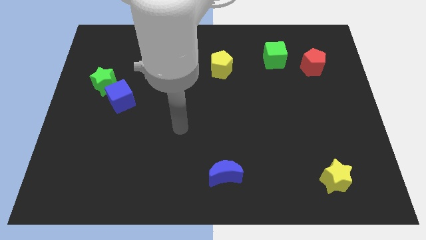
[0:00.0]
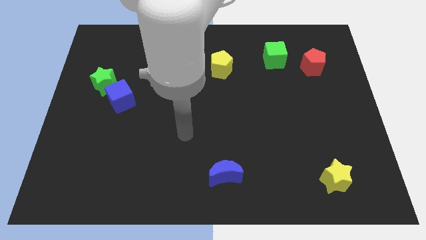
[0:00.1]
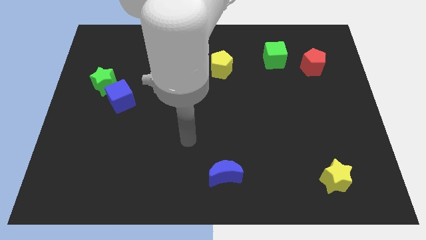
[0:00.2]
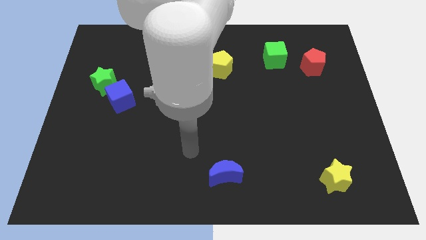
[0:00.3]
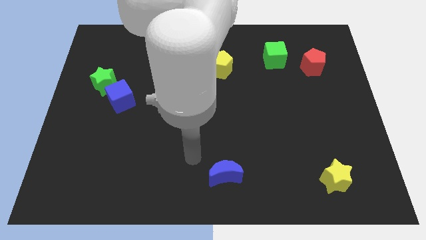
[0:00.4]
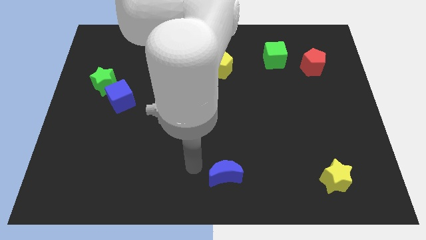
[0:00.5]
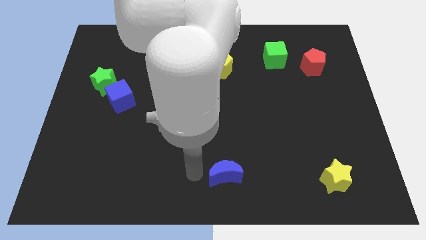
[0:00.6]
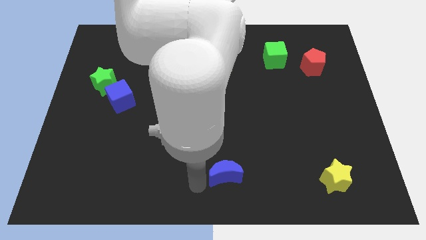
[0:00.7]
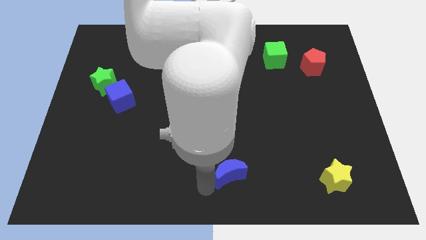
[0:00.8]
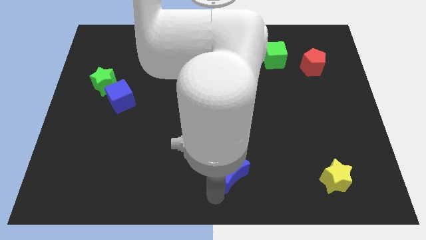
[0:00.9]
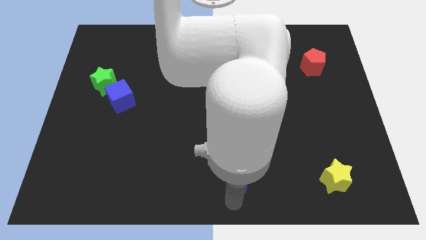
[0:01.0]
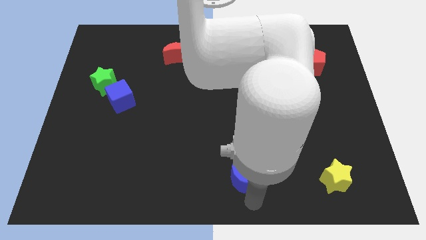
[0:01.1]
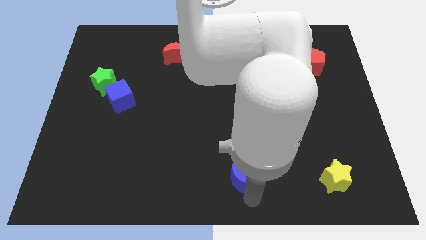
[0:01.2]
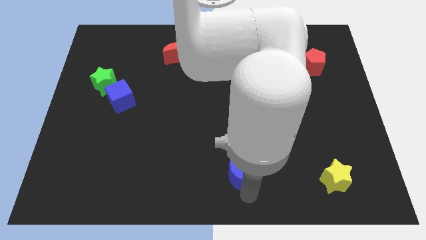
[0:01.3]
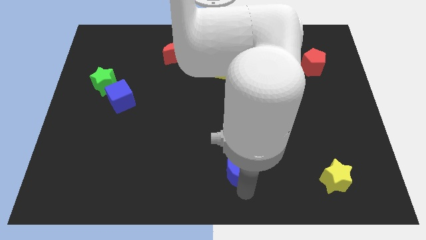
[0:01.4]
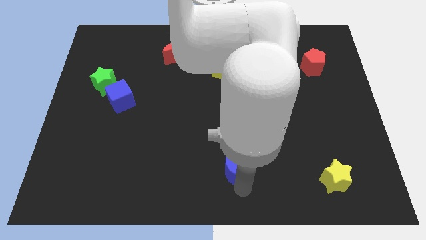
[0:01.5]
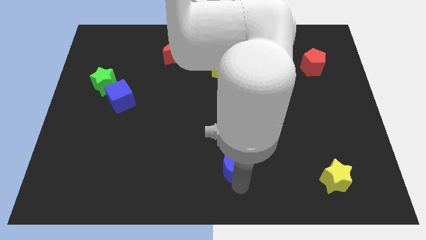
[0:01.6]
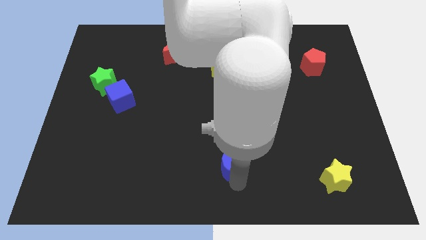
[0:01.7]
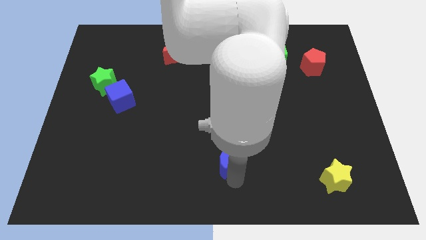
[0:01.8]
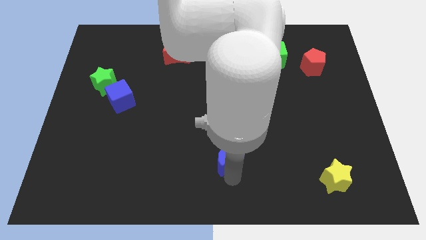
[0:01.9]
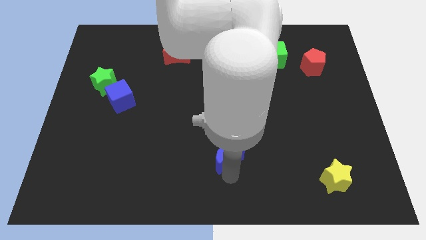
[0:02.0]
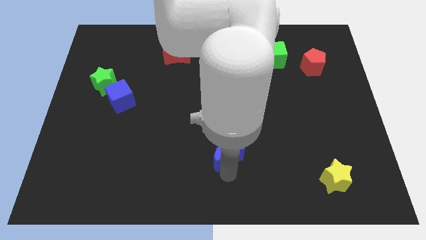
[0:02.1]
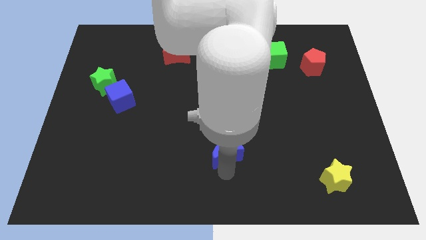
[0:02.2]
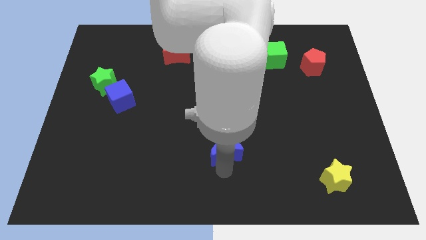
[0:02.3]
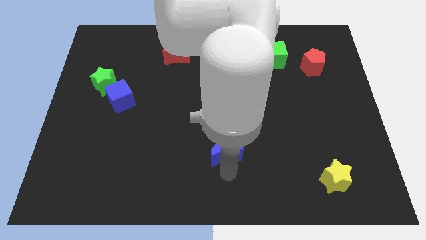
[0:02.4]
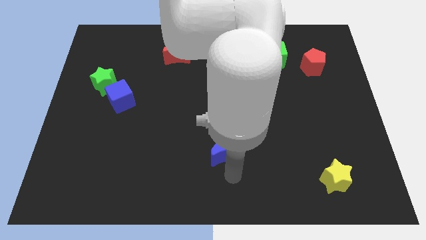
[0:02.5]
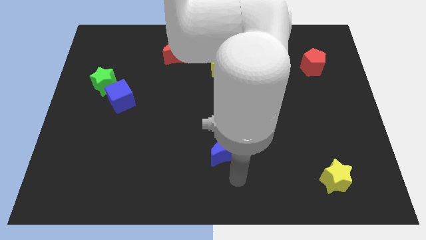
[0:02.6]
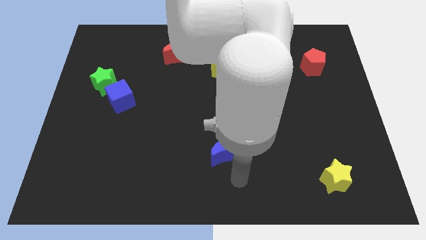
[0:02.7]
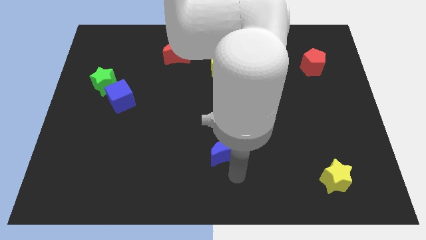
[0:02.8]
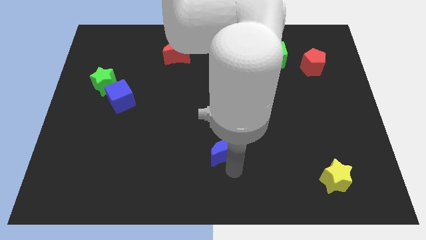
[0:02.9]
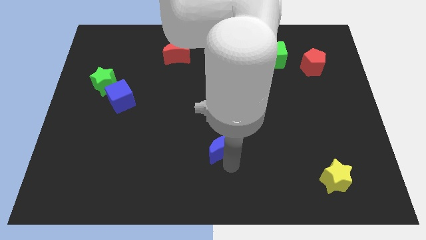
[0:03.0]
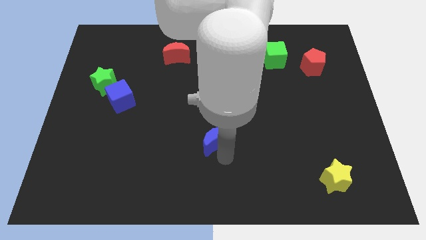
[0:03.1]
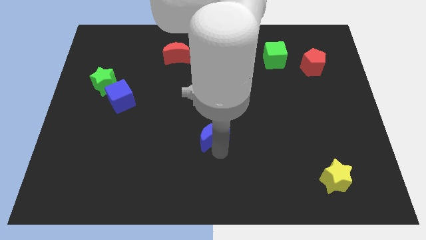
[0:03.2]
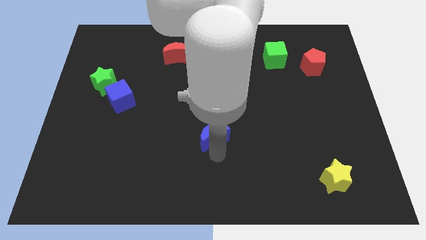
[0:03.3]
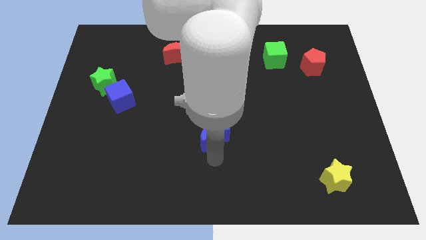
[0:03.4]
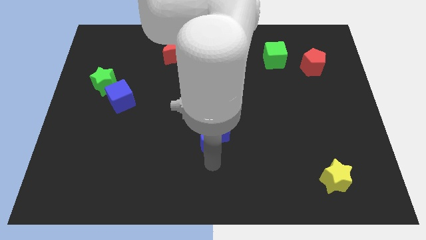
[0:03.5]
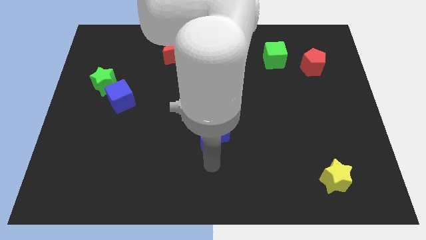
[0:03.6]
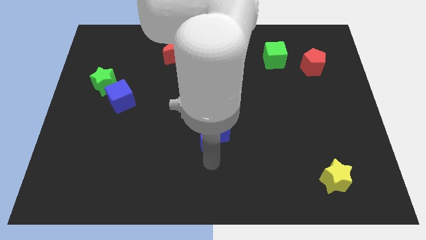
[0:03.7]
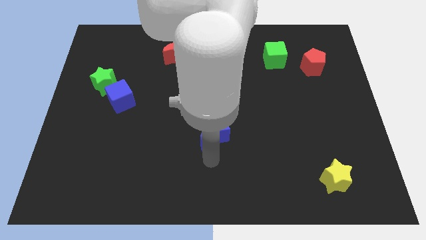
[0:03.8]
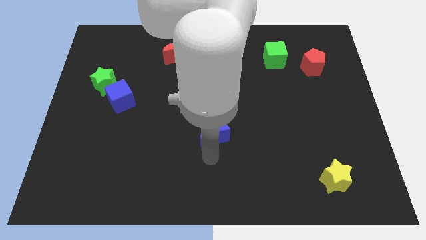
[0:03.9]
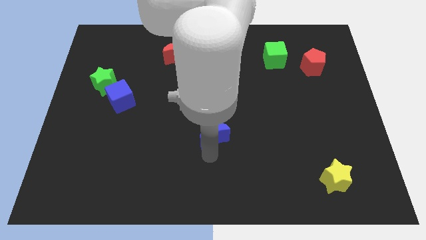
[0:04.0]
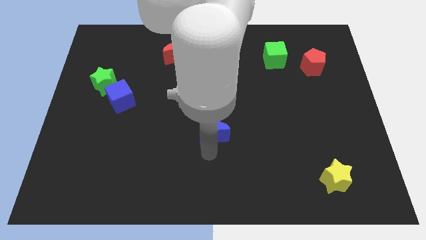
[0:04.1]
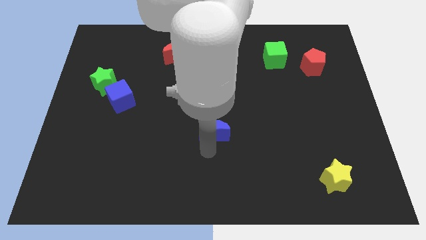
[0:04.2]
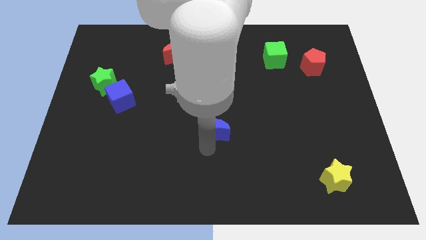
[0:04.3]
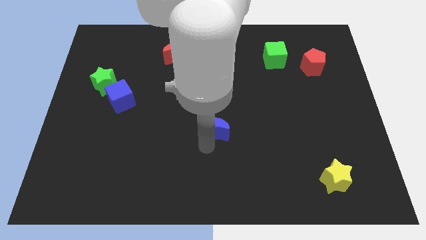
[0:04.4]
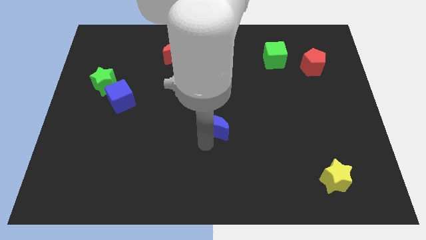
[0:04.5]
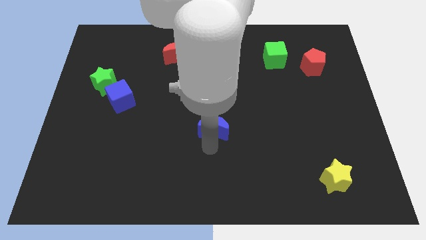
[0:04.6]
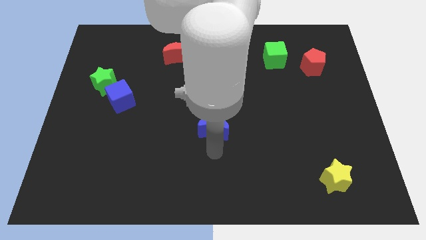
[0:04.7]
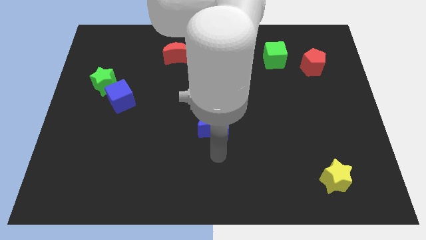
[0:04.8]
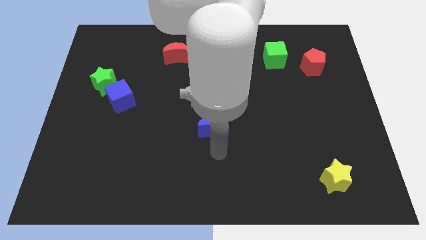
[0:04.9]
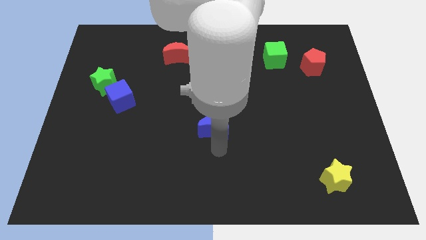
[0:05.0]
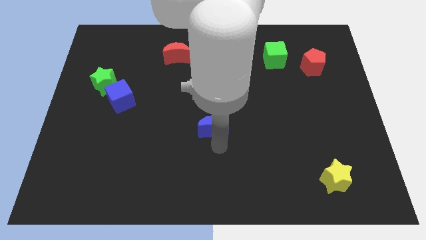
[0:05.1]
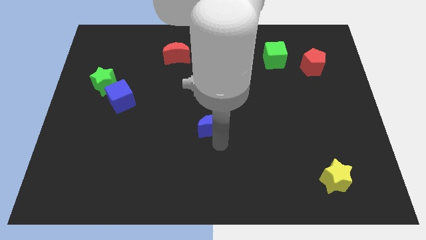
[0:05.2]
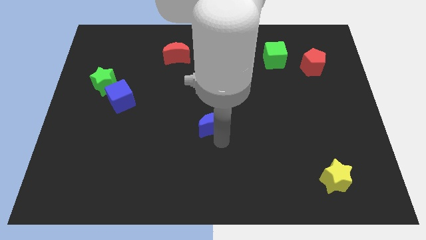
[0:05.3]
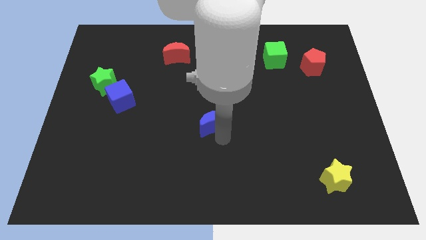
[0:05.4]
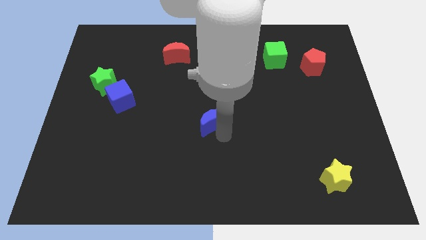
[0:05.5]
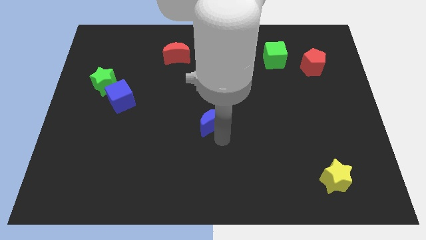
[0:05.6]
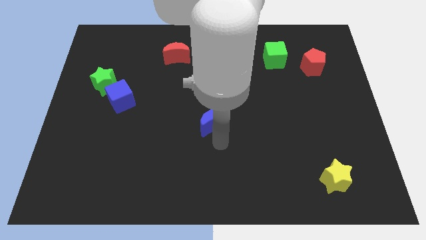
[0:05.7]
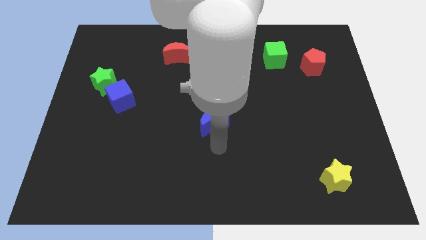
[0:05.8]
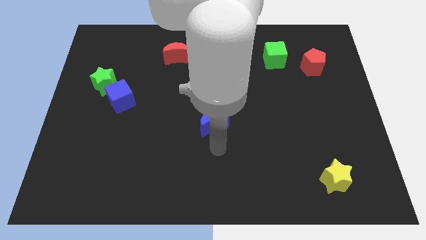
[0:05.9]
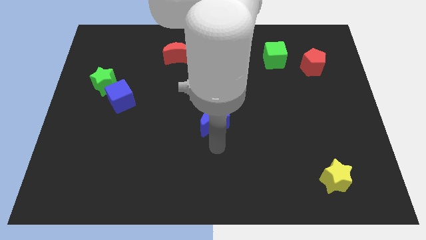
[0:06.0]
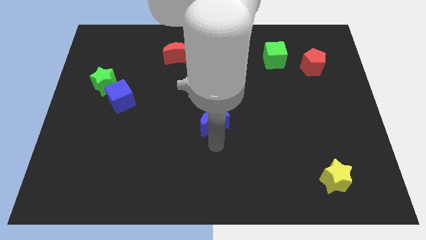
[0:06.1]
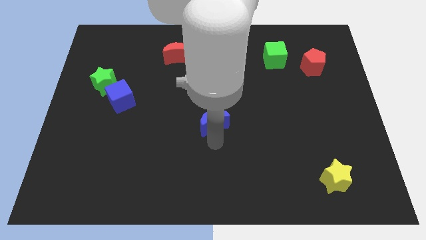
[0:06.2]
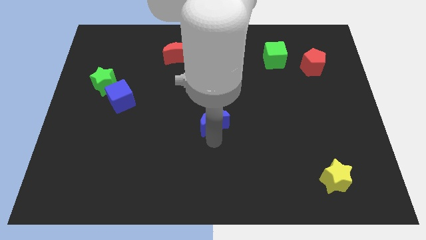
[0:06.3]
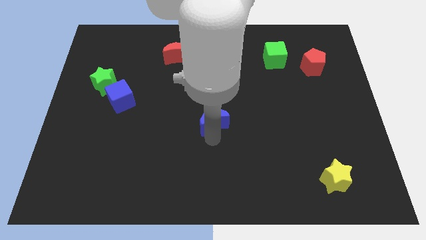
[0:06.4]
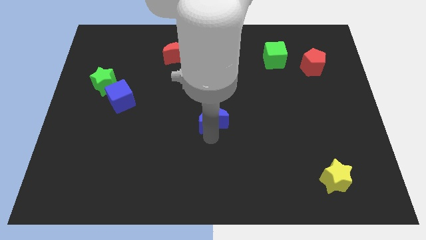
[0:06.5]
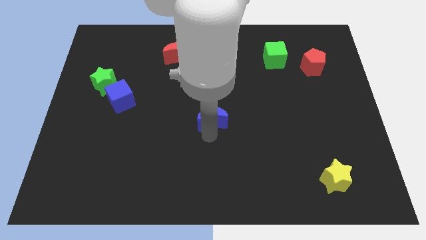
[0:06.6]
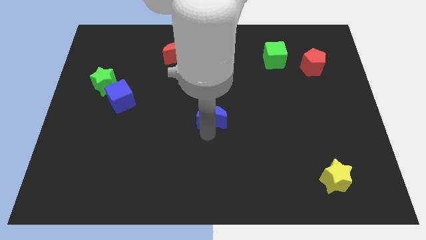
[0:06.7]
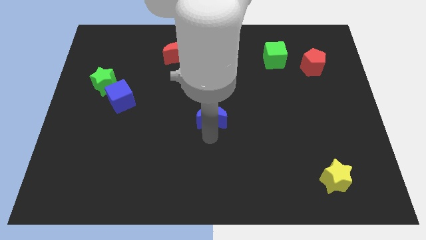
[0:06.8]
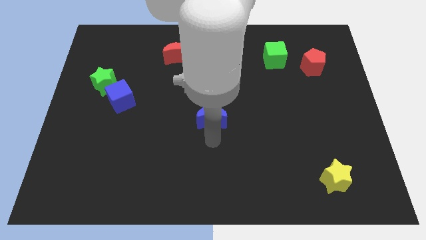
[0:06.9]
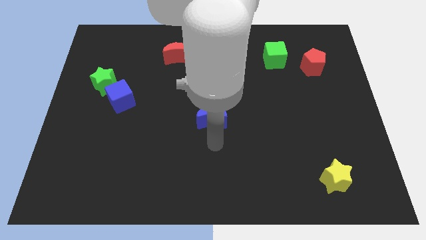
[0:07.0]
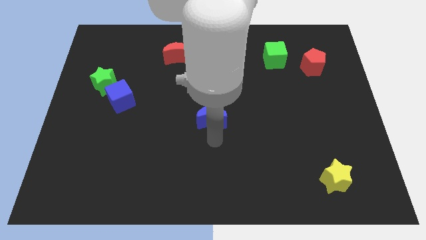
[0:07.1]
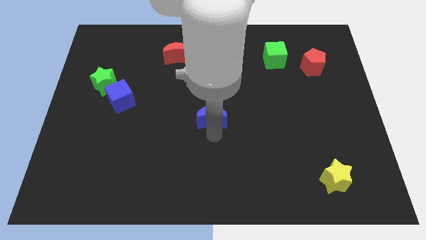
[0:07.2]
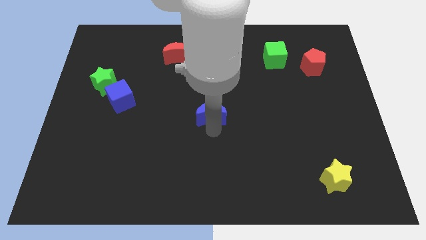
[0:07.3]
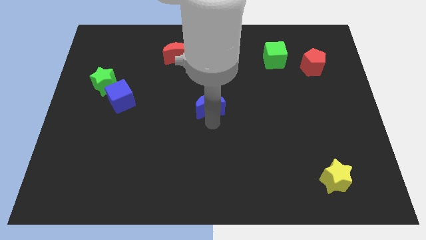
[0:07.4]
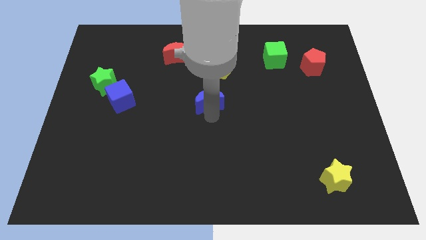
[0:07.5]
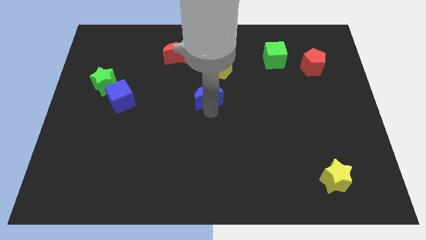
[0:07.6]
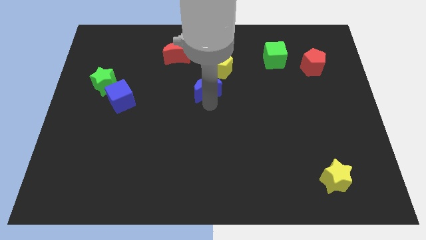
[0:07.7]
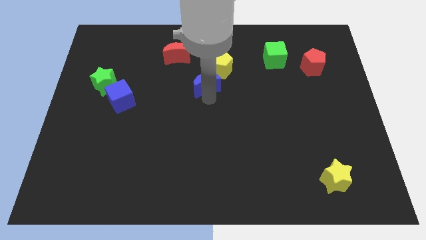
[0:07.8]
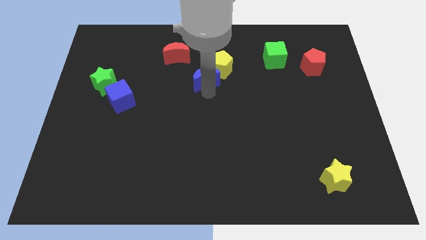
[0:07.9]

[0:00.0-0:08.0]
move the blue moon to the bottom right of the red moon
